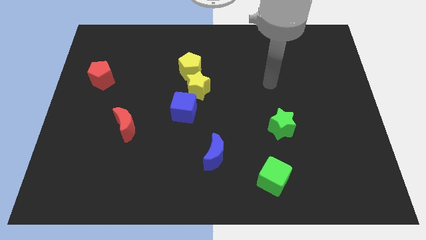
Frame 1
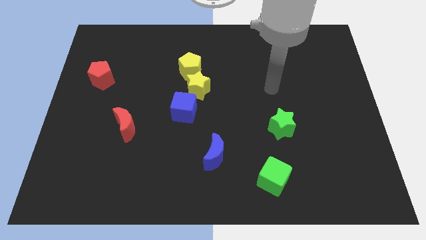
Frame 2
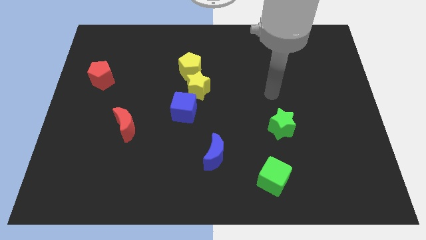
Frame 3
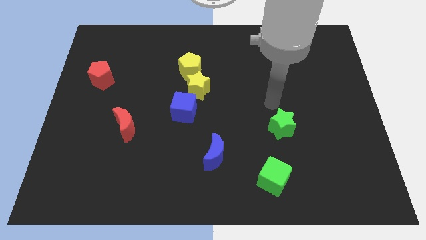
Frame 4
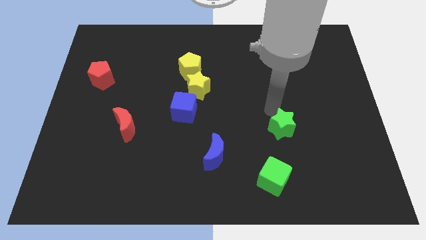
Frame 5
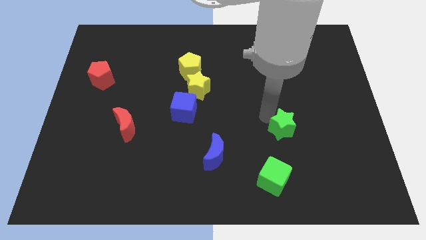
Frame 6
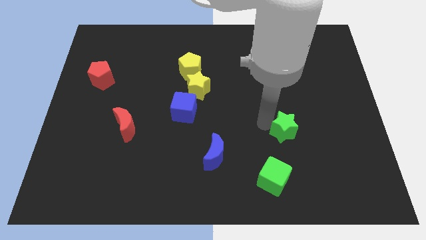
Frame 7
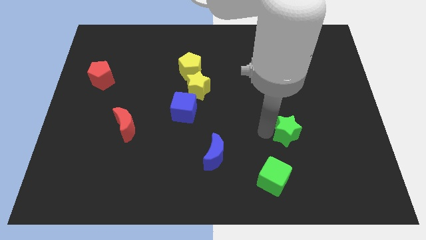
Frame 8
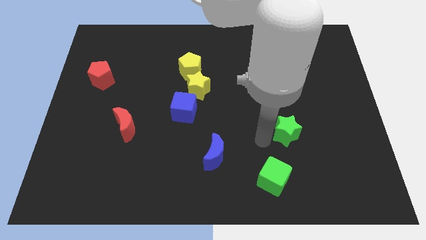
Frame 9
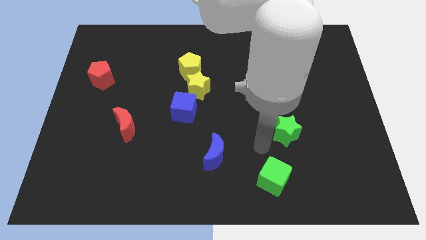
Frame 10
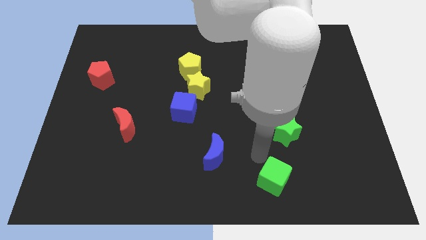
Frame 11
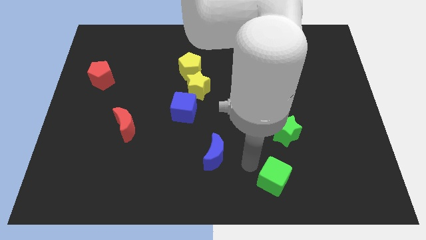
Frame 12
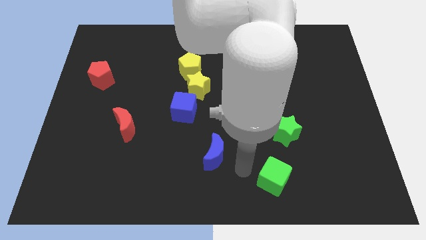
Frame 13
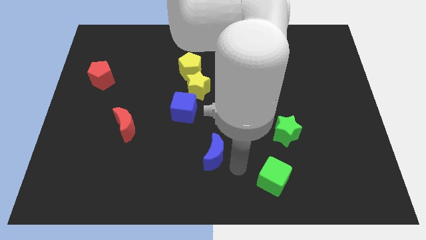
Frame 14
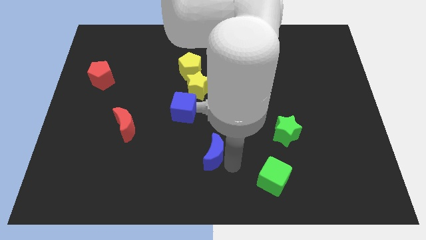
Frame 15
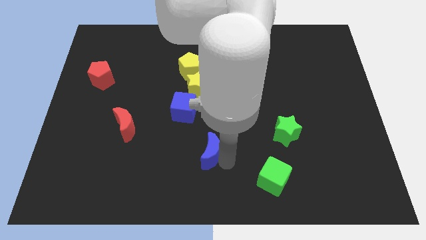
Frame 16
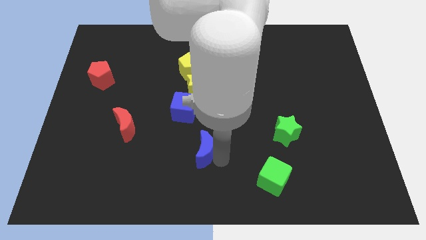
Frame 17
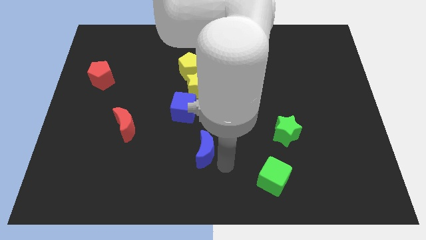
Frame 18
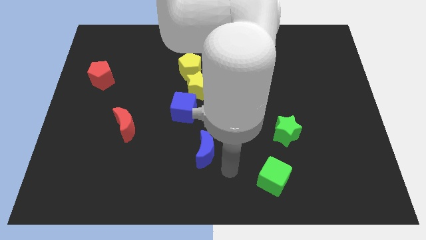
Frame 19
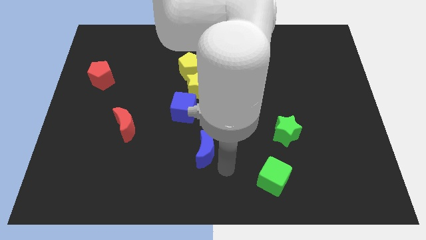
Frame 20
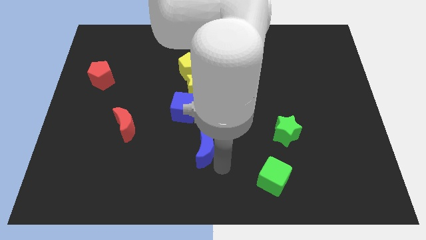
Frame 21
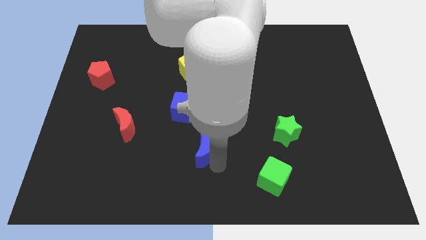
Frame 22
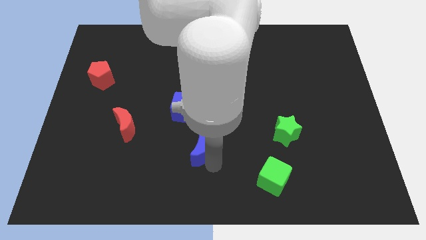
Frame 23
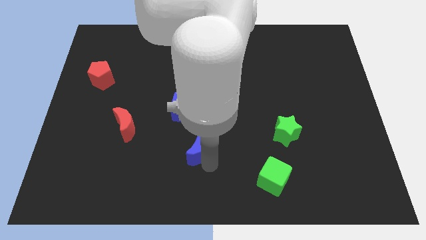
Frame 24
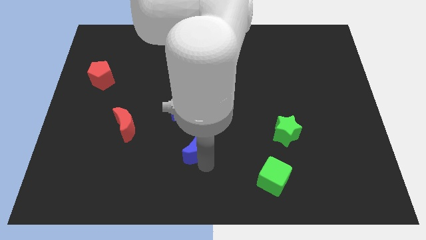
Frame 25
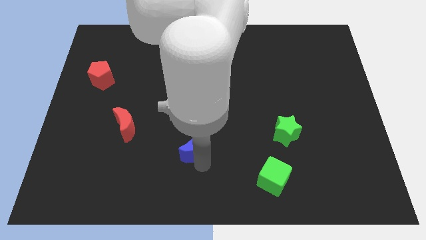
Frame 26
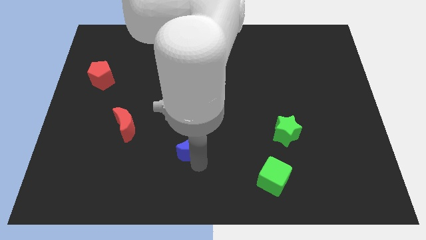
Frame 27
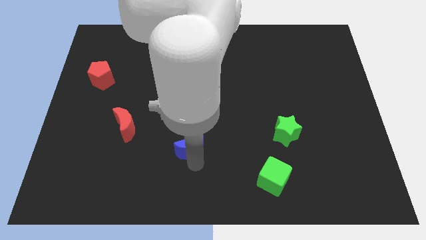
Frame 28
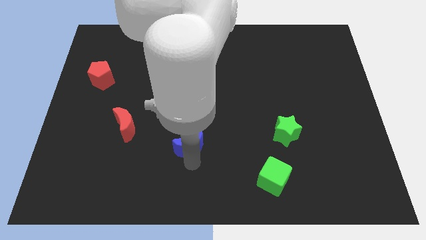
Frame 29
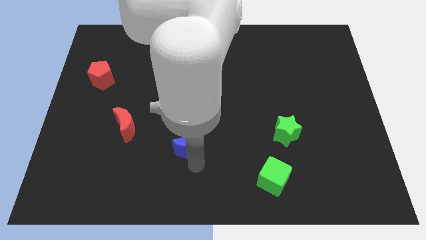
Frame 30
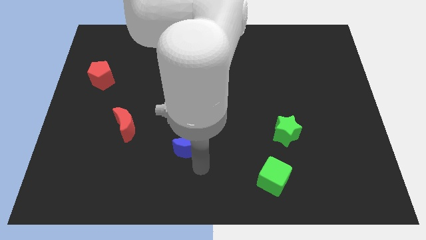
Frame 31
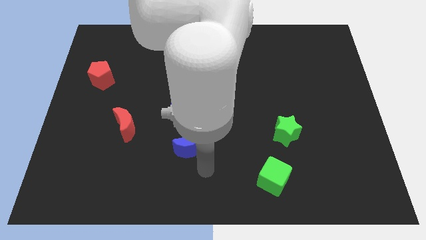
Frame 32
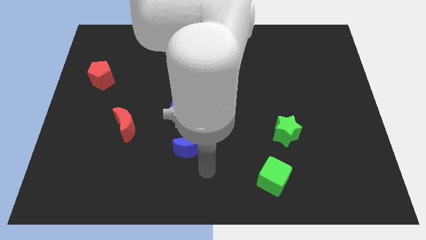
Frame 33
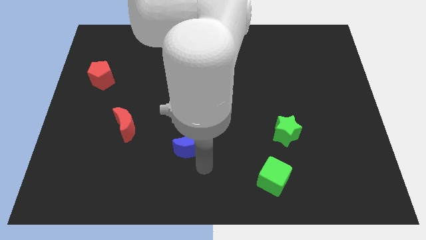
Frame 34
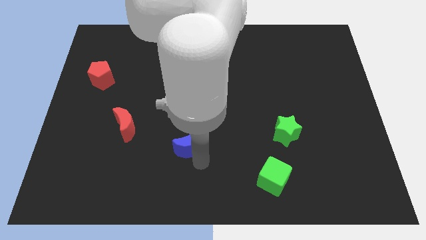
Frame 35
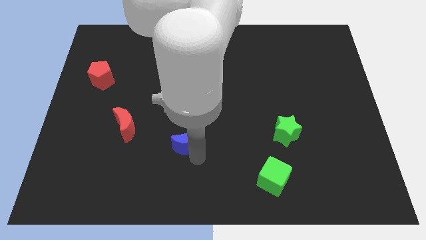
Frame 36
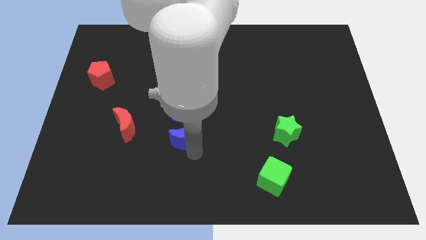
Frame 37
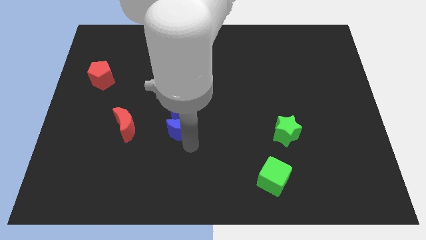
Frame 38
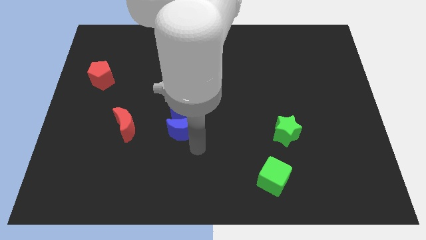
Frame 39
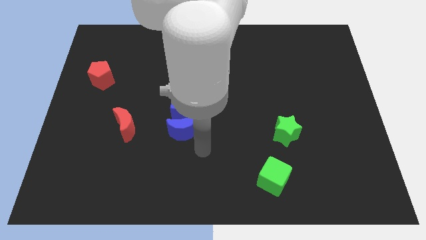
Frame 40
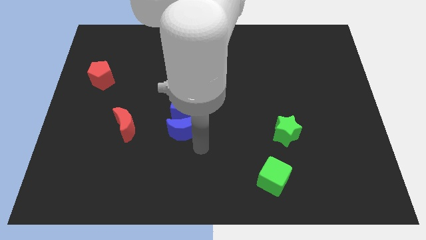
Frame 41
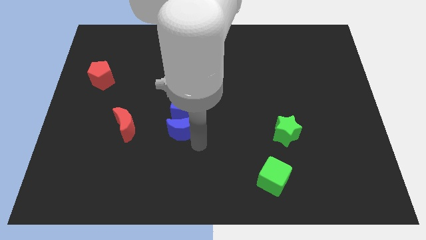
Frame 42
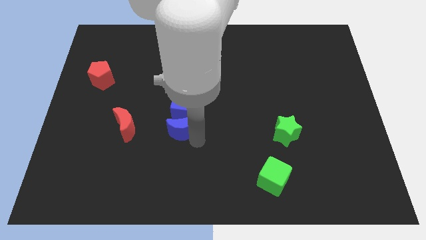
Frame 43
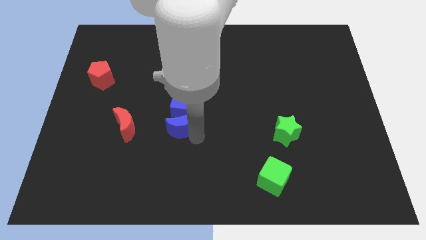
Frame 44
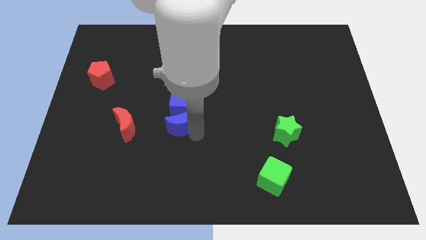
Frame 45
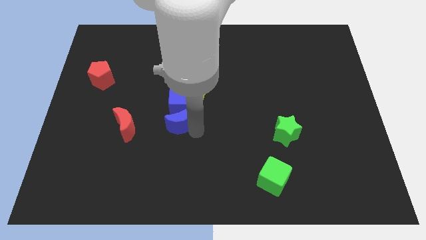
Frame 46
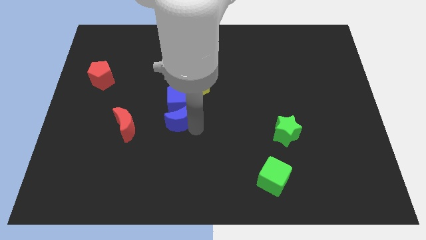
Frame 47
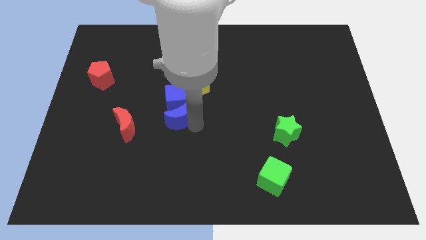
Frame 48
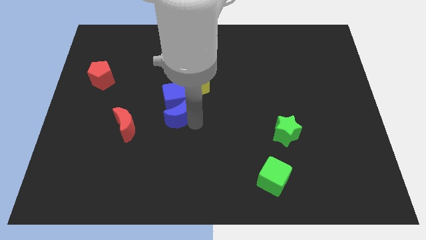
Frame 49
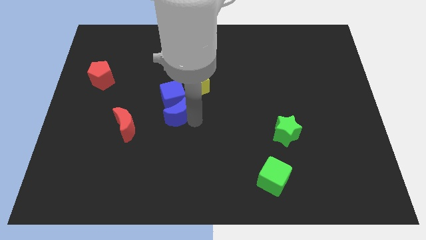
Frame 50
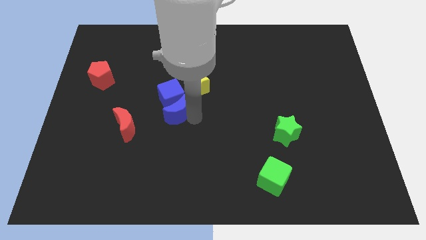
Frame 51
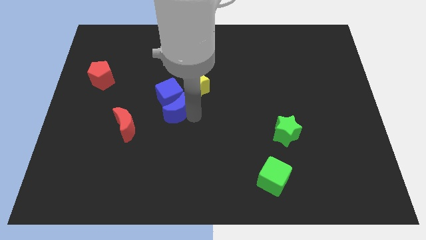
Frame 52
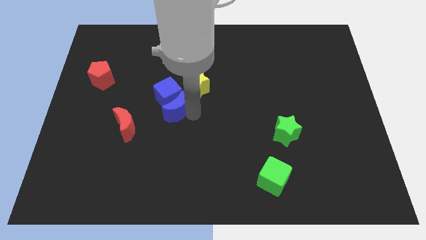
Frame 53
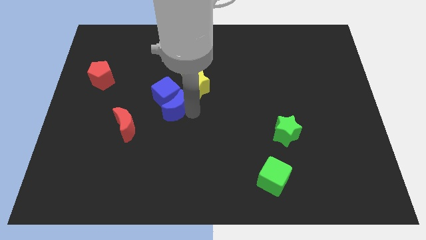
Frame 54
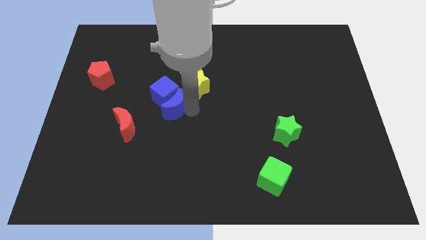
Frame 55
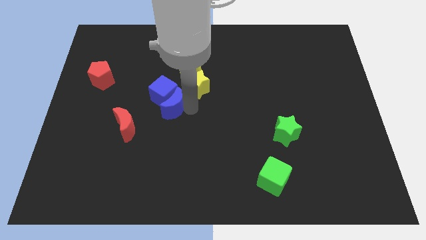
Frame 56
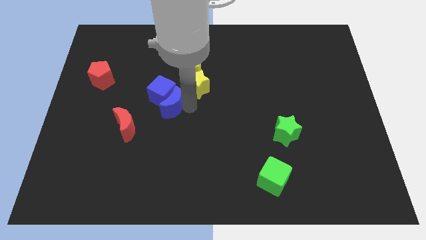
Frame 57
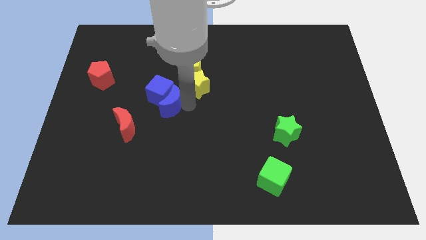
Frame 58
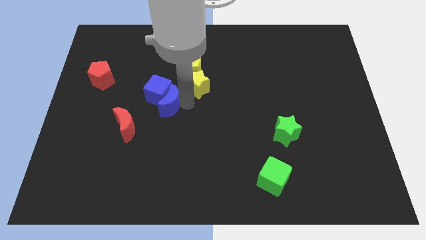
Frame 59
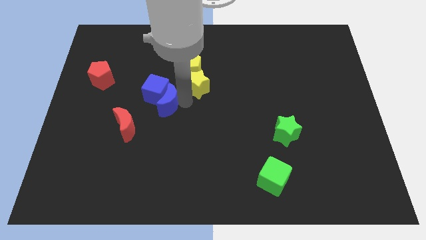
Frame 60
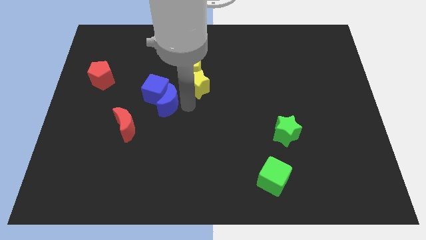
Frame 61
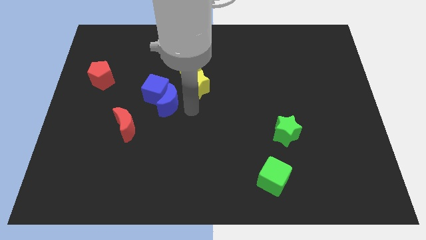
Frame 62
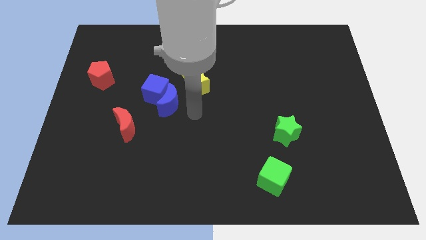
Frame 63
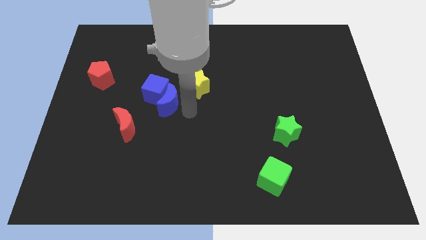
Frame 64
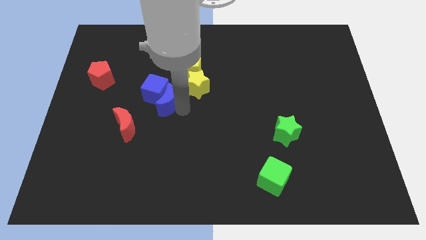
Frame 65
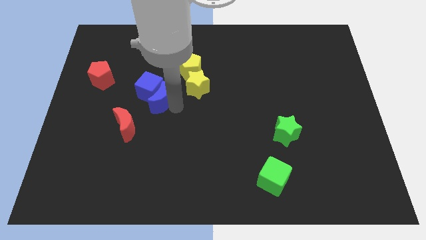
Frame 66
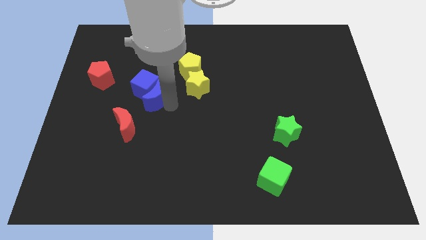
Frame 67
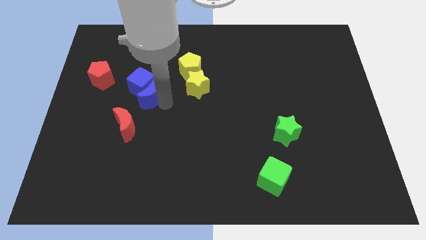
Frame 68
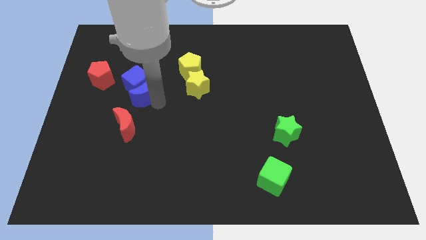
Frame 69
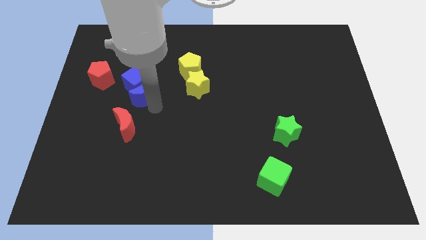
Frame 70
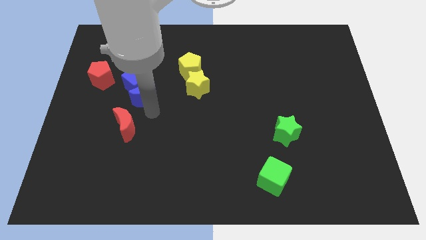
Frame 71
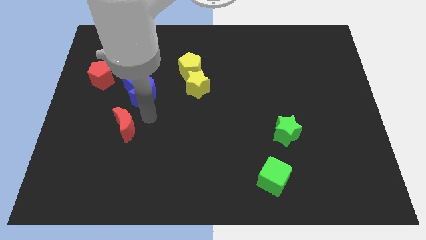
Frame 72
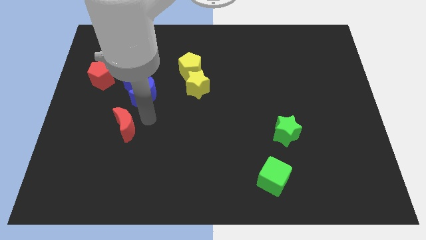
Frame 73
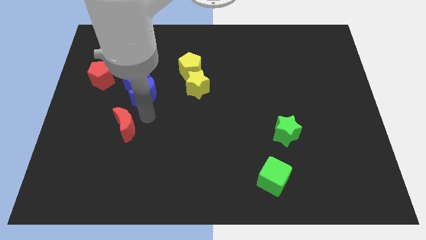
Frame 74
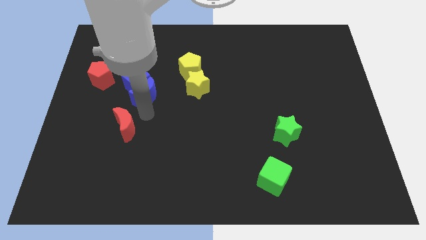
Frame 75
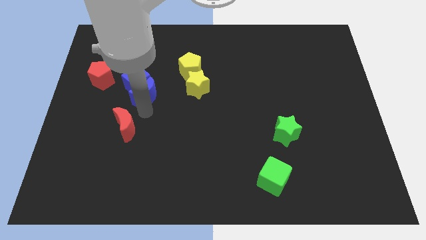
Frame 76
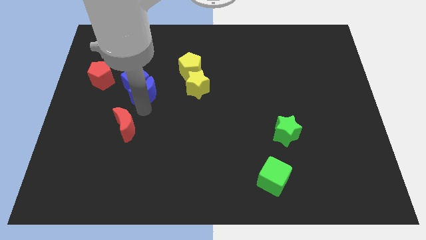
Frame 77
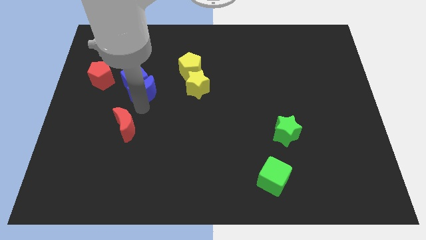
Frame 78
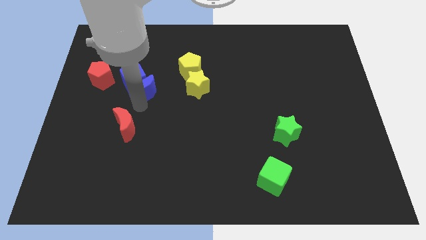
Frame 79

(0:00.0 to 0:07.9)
move the blue moon to the right of the red pentagon
